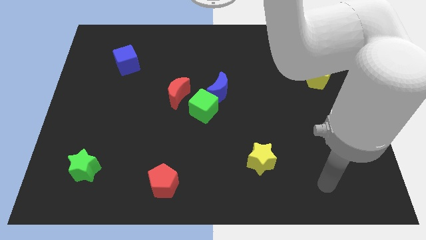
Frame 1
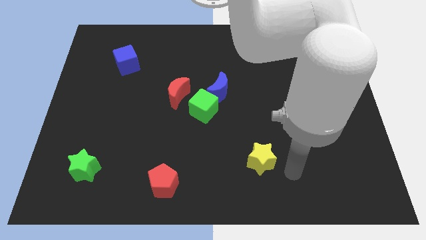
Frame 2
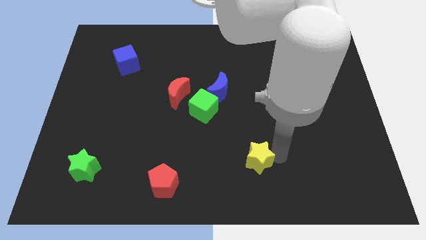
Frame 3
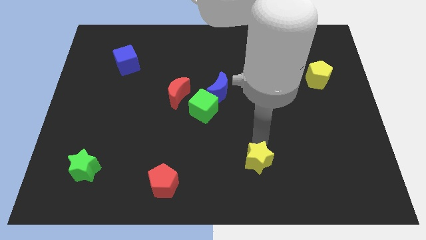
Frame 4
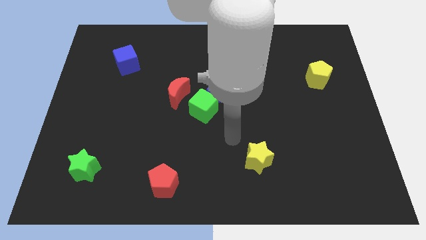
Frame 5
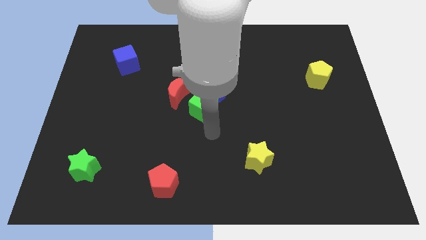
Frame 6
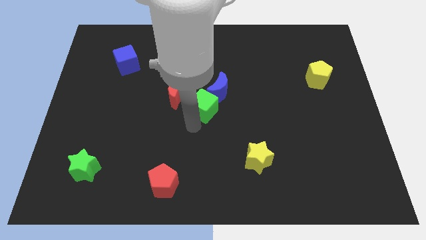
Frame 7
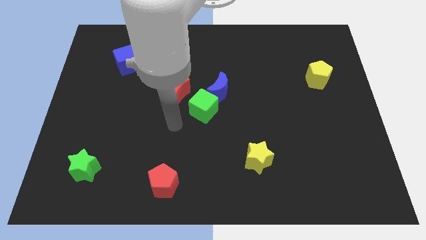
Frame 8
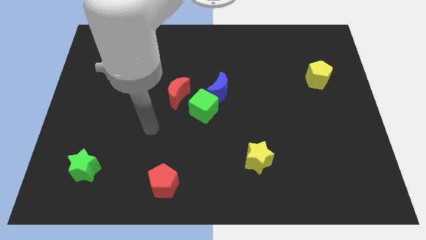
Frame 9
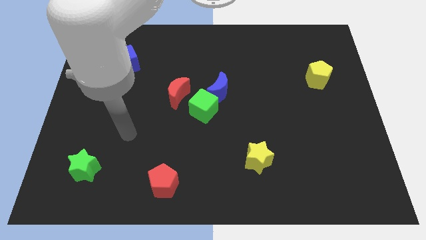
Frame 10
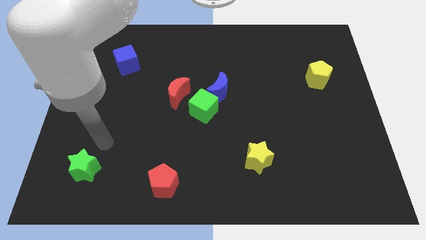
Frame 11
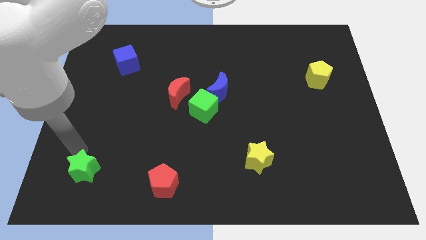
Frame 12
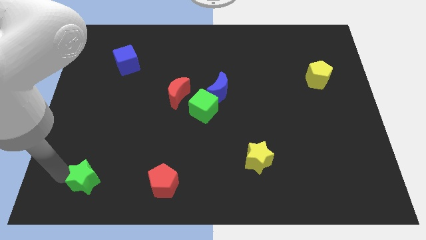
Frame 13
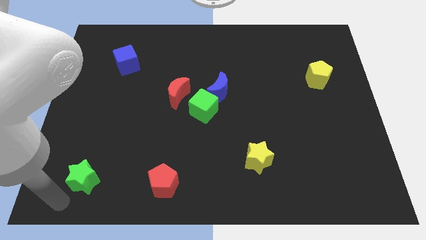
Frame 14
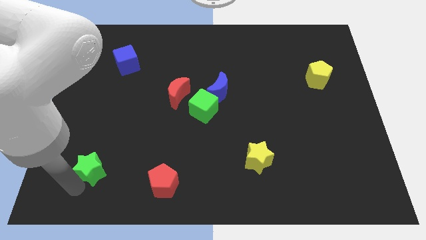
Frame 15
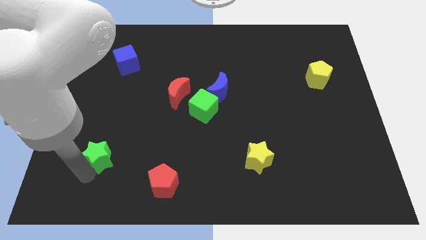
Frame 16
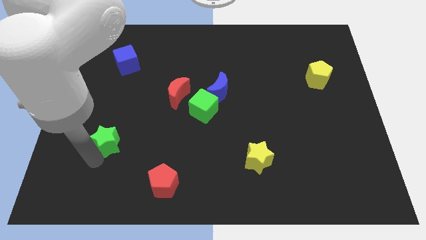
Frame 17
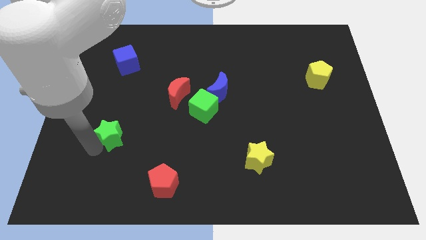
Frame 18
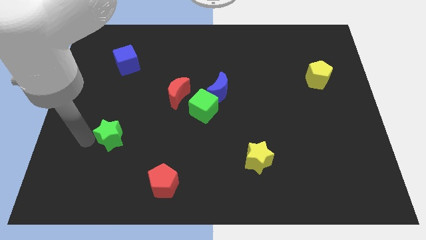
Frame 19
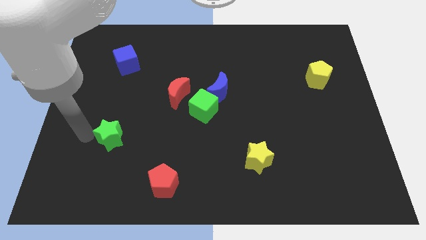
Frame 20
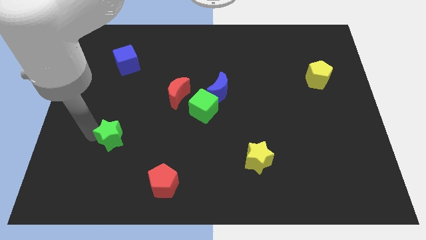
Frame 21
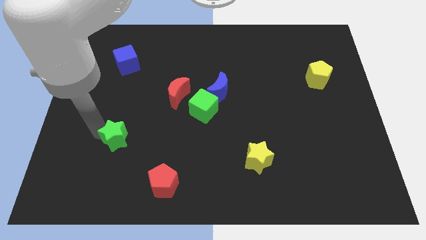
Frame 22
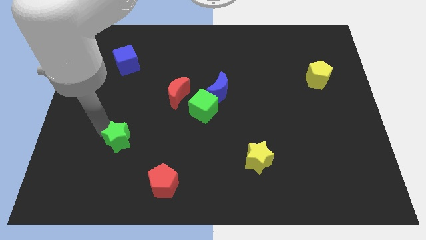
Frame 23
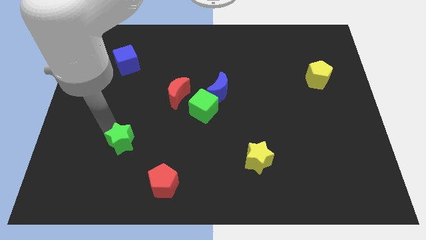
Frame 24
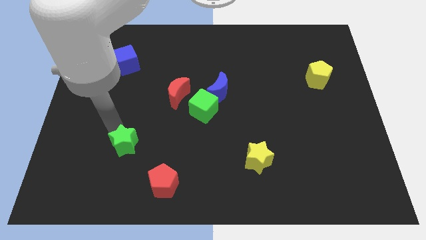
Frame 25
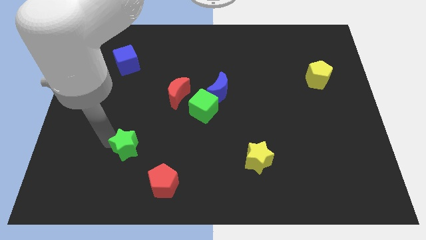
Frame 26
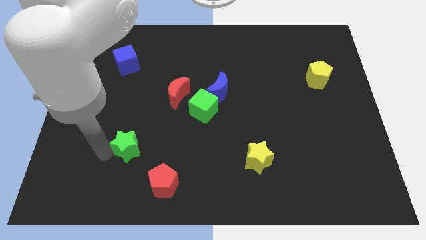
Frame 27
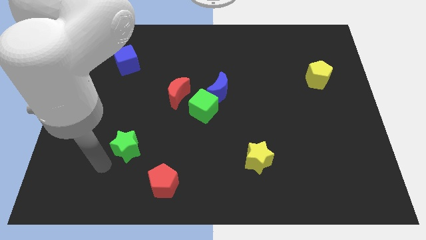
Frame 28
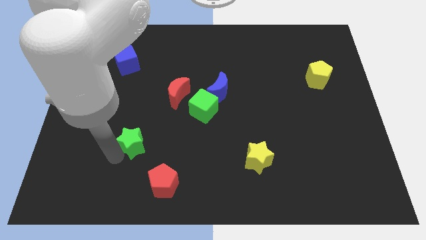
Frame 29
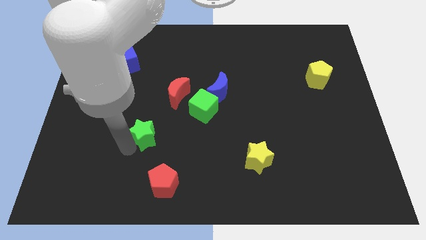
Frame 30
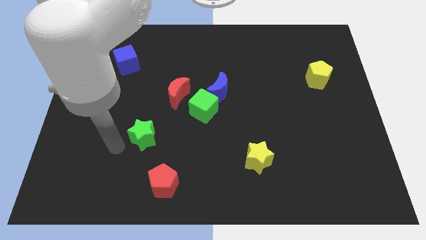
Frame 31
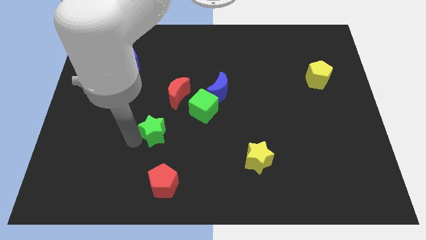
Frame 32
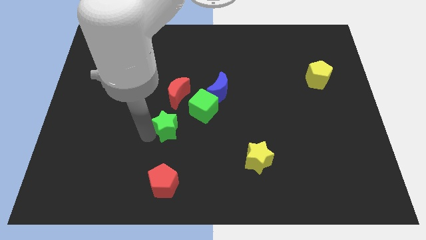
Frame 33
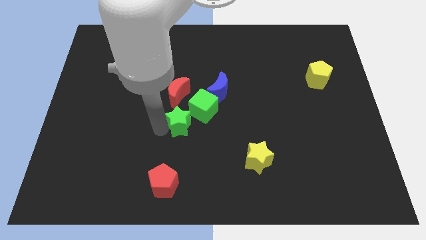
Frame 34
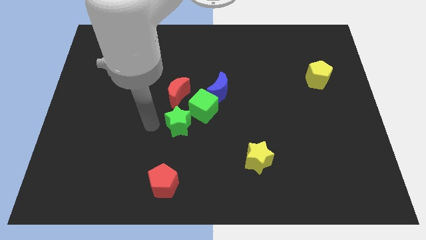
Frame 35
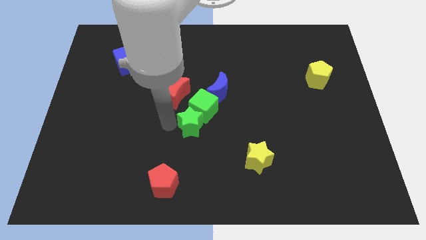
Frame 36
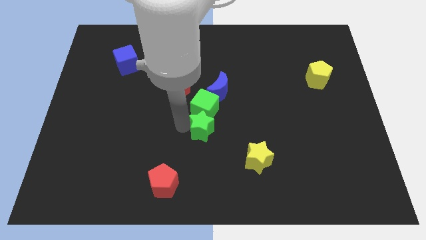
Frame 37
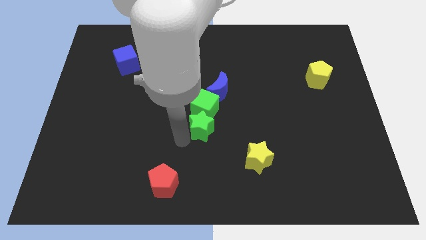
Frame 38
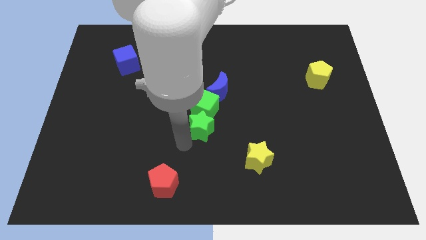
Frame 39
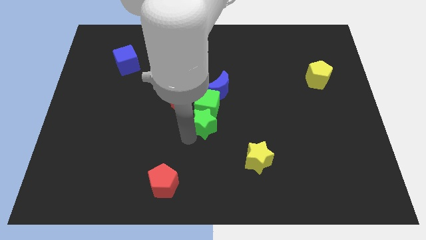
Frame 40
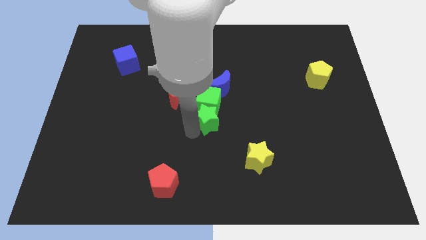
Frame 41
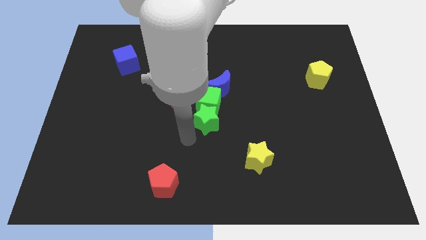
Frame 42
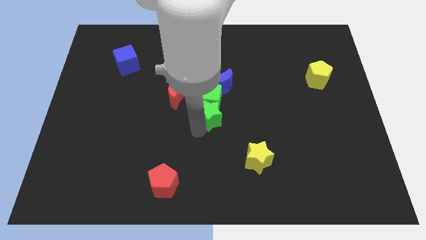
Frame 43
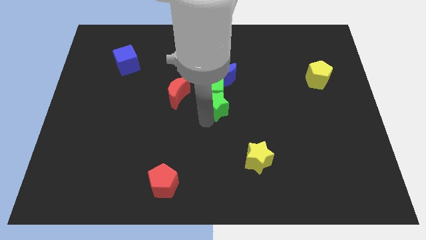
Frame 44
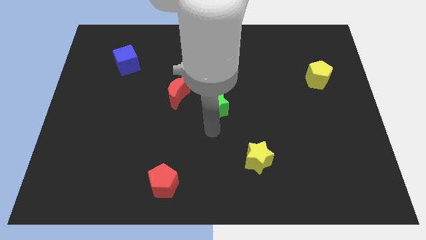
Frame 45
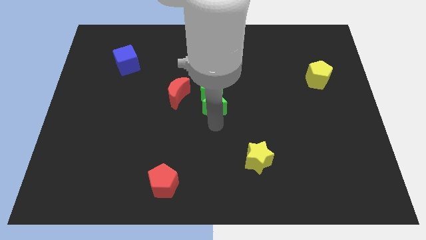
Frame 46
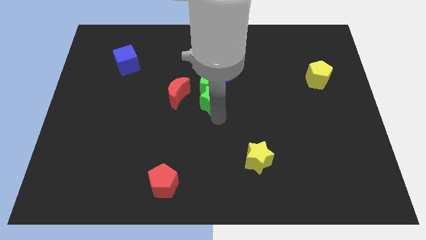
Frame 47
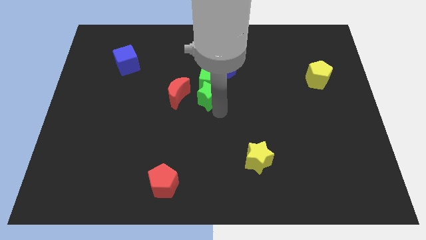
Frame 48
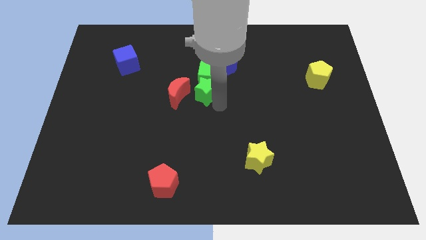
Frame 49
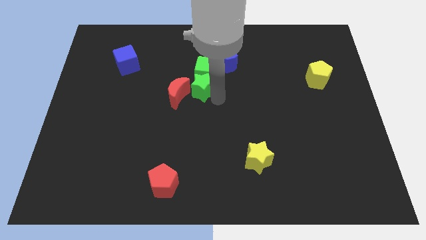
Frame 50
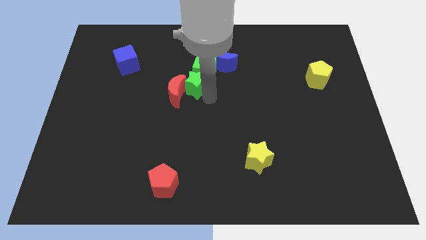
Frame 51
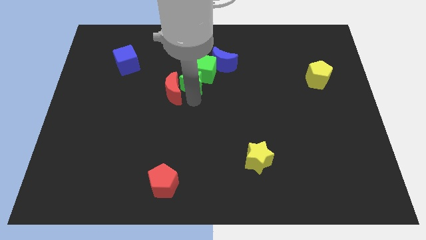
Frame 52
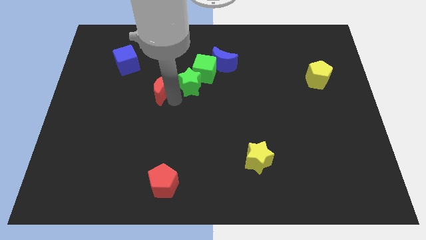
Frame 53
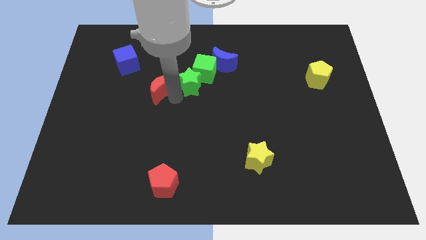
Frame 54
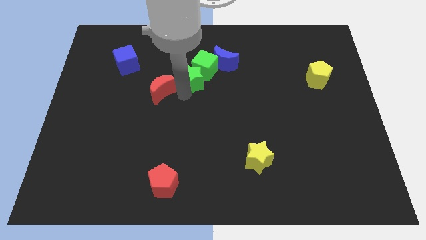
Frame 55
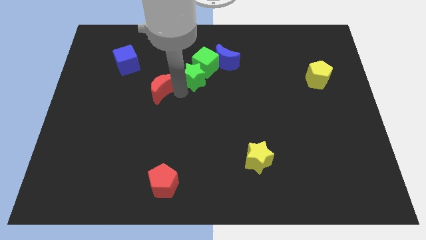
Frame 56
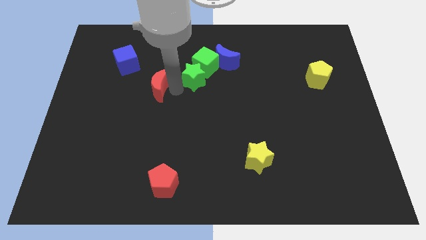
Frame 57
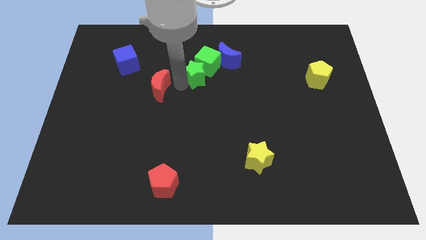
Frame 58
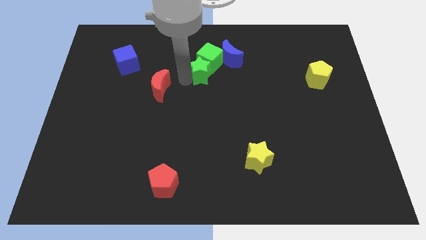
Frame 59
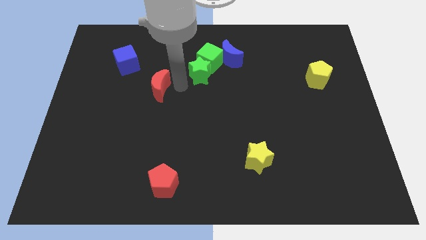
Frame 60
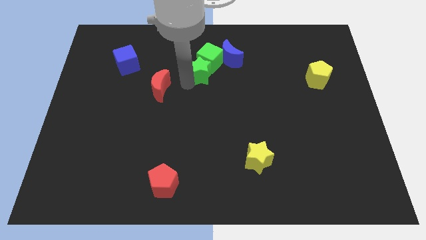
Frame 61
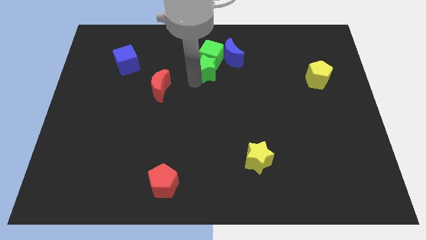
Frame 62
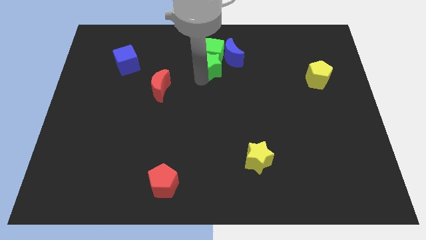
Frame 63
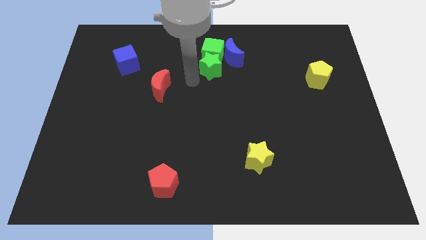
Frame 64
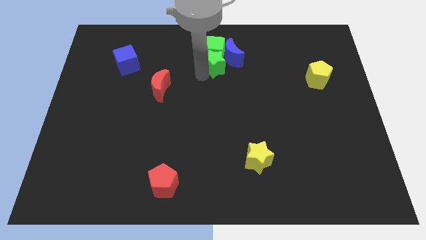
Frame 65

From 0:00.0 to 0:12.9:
push the green star towards the blue moon

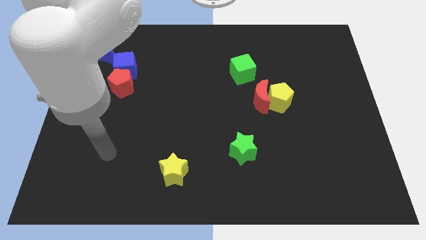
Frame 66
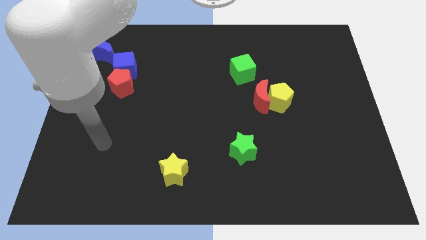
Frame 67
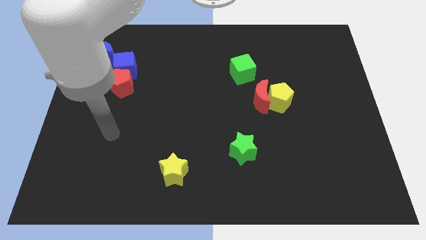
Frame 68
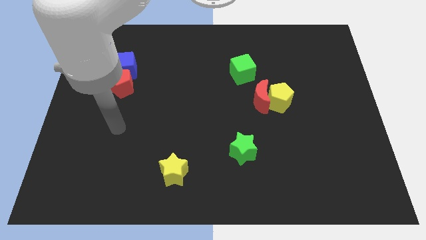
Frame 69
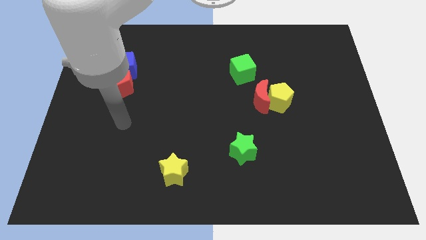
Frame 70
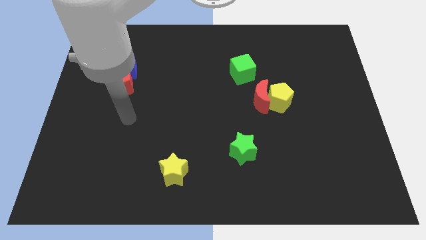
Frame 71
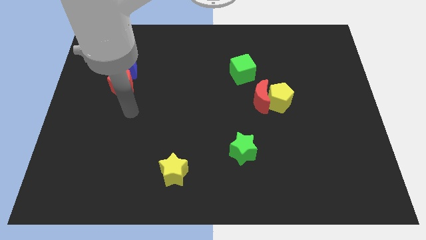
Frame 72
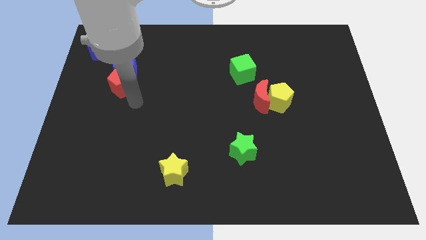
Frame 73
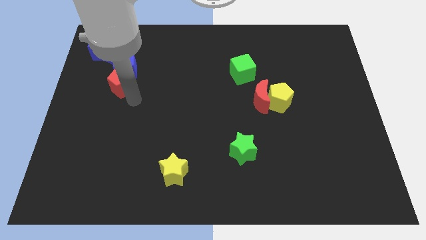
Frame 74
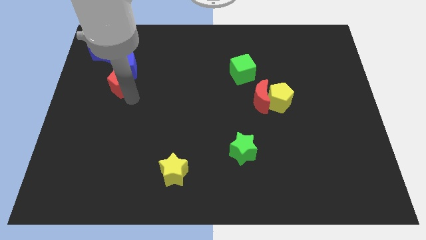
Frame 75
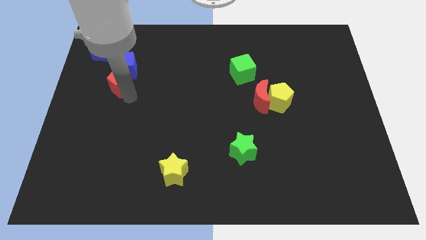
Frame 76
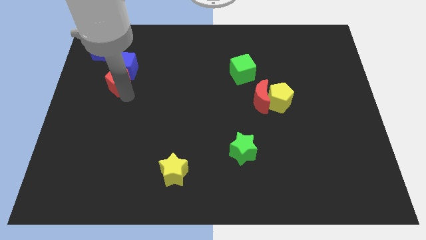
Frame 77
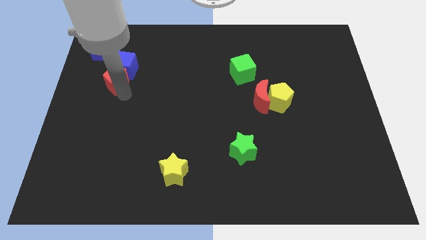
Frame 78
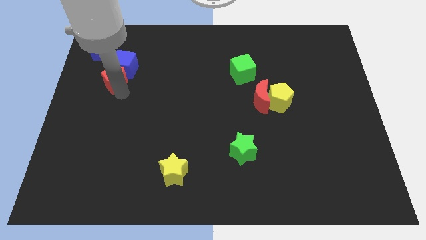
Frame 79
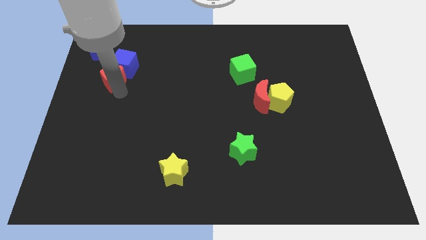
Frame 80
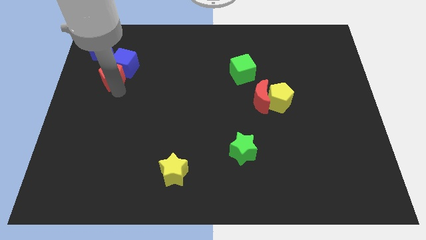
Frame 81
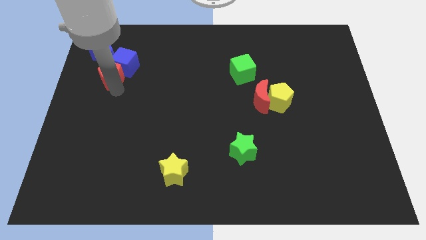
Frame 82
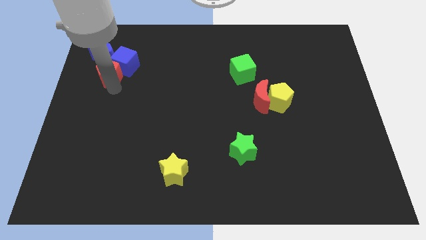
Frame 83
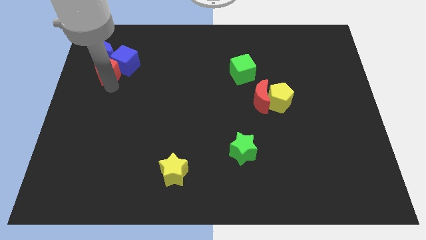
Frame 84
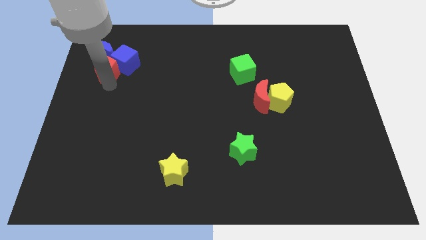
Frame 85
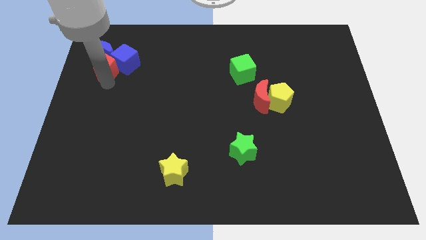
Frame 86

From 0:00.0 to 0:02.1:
slide the red pentagon towards the blue moon
